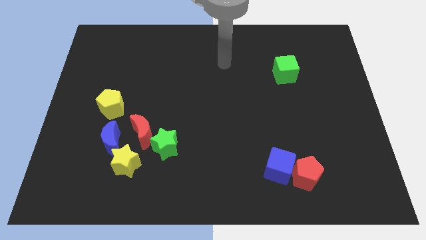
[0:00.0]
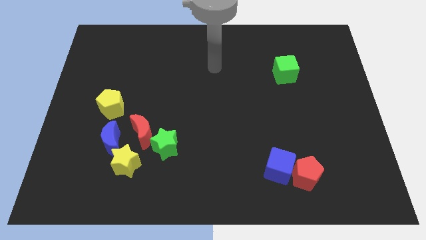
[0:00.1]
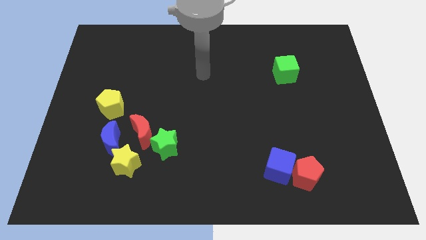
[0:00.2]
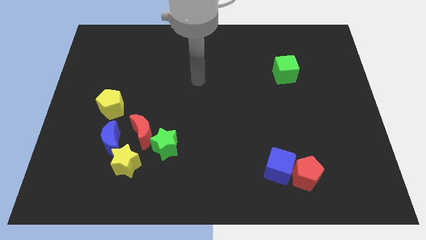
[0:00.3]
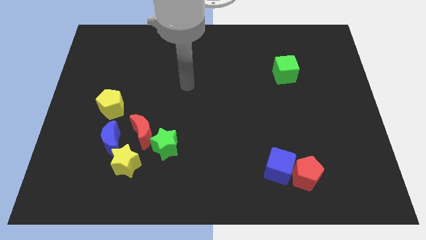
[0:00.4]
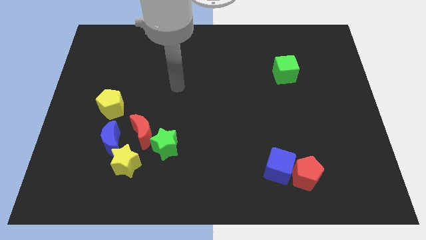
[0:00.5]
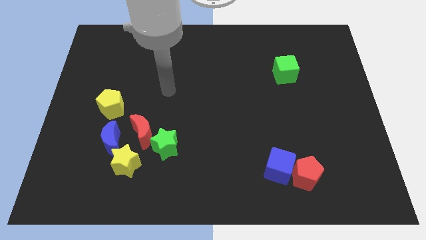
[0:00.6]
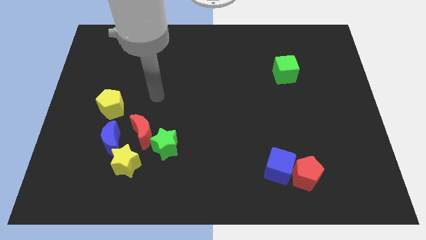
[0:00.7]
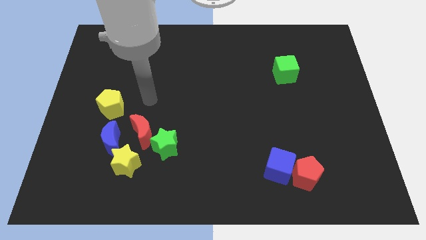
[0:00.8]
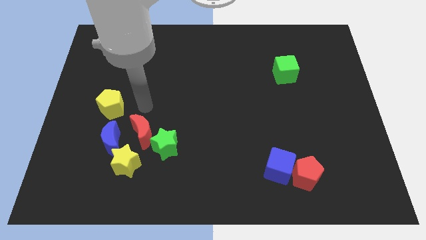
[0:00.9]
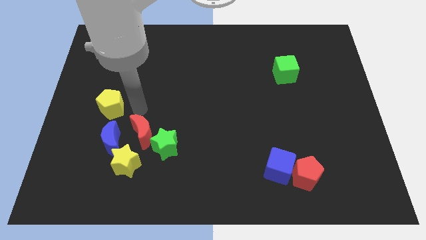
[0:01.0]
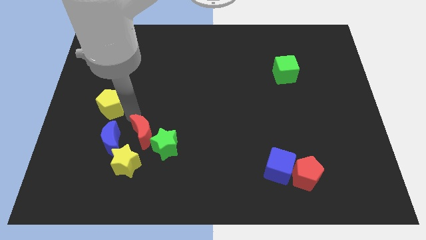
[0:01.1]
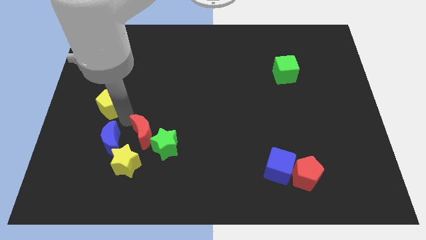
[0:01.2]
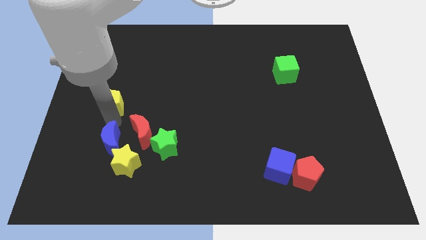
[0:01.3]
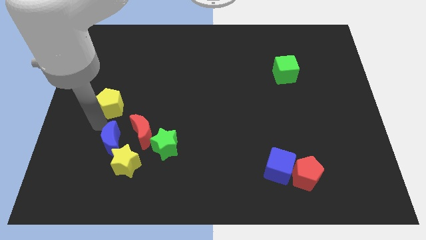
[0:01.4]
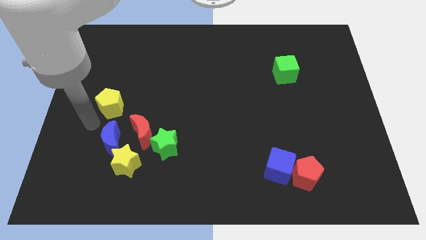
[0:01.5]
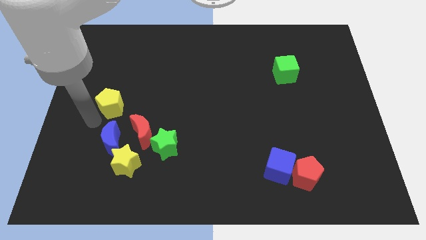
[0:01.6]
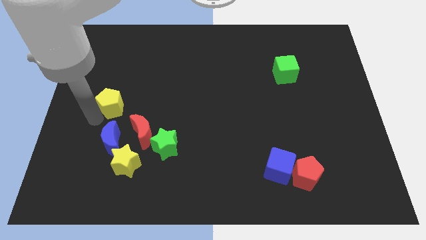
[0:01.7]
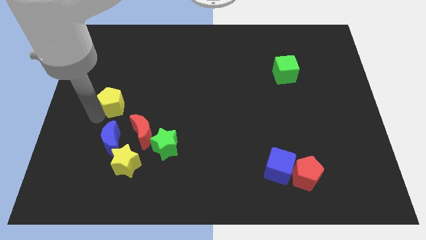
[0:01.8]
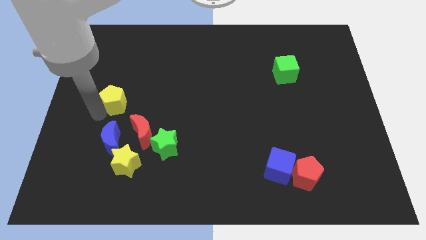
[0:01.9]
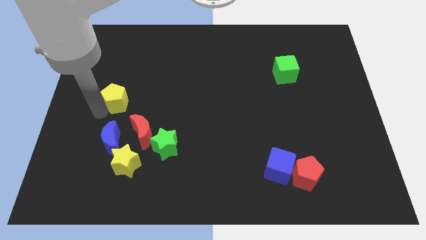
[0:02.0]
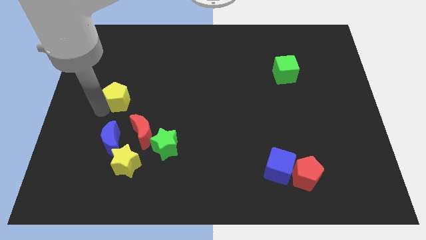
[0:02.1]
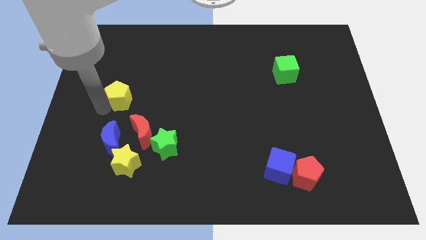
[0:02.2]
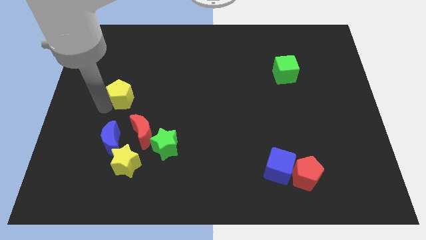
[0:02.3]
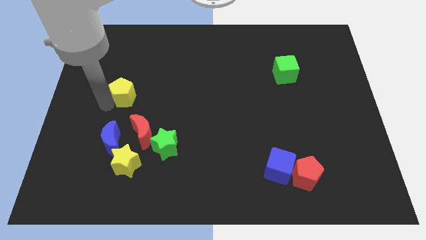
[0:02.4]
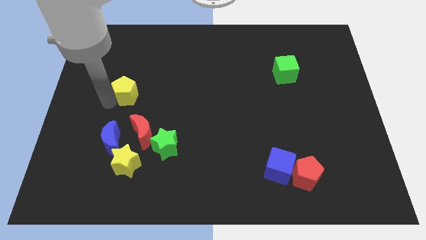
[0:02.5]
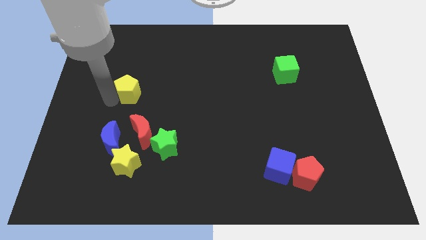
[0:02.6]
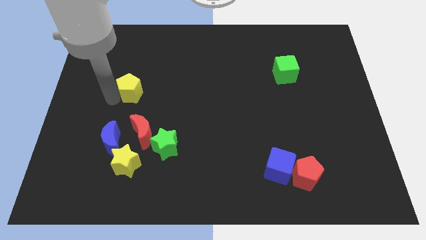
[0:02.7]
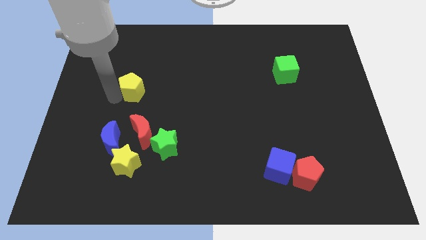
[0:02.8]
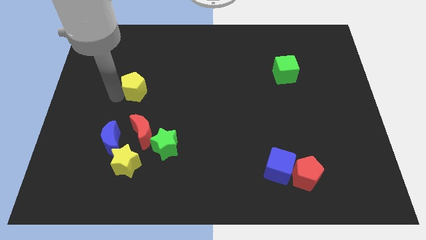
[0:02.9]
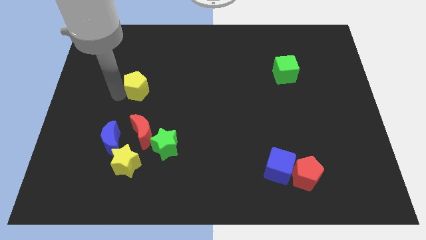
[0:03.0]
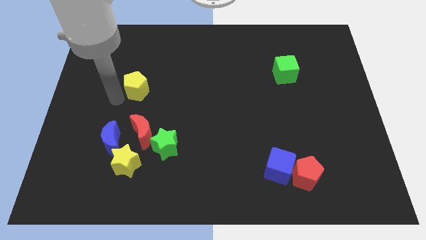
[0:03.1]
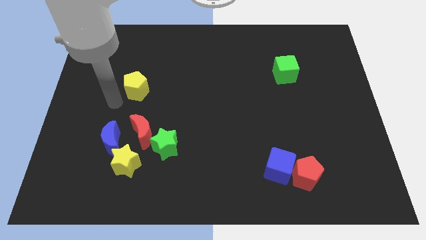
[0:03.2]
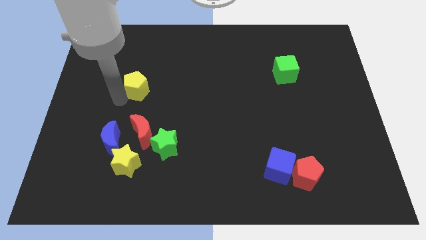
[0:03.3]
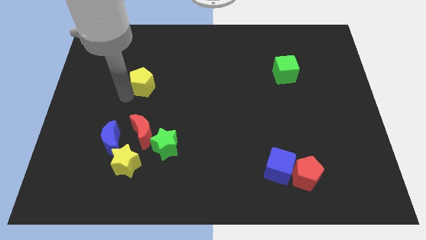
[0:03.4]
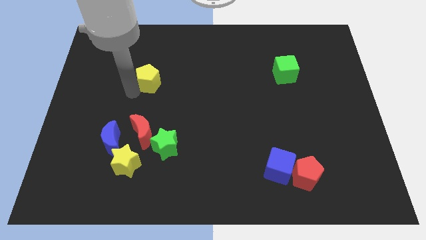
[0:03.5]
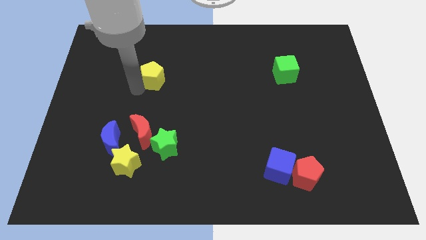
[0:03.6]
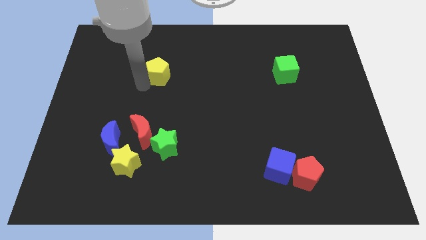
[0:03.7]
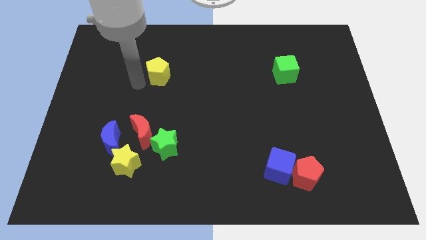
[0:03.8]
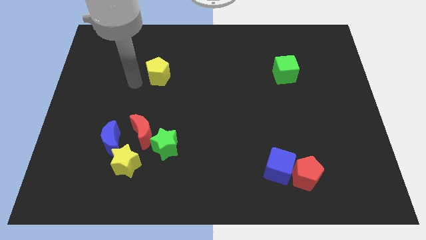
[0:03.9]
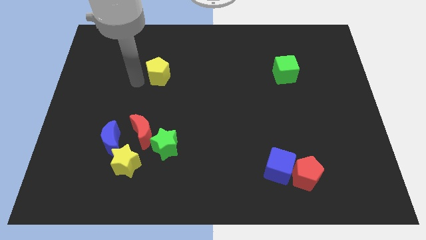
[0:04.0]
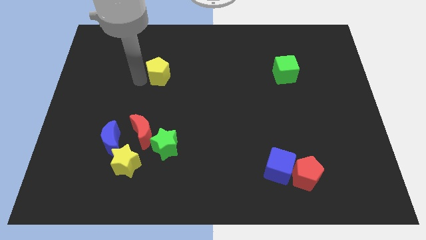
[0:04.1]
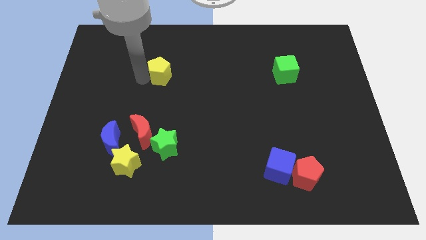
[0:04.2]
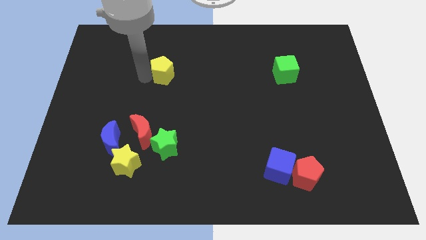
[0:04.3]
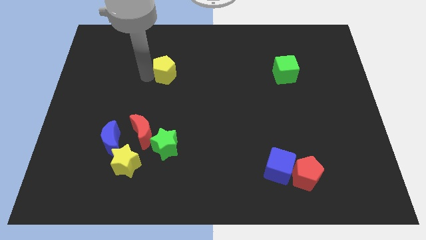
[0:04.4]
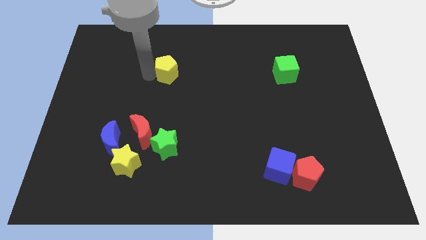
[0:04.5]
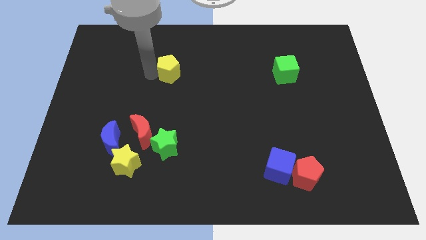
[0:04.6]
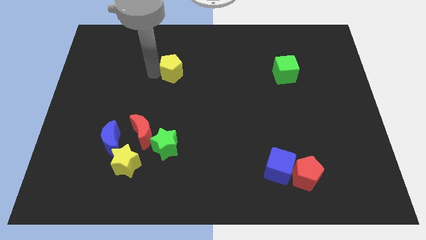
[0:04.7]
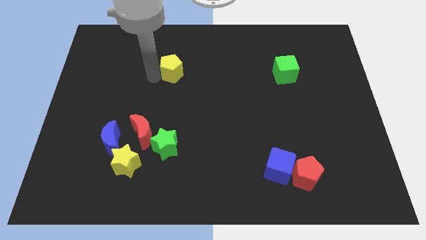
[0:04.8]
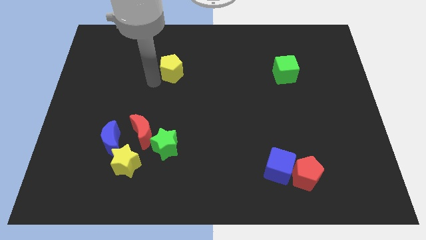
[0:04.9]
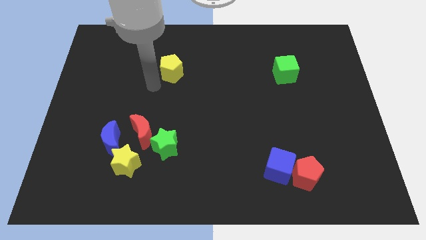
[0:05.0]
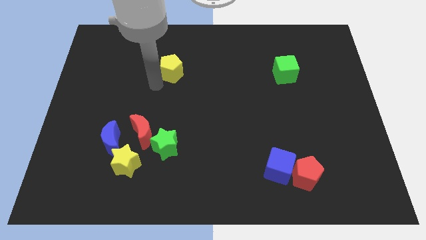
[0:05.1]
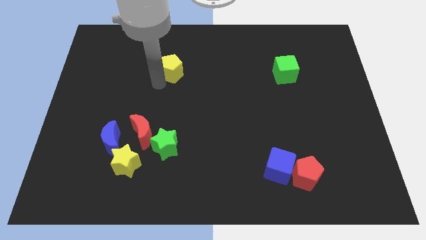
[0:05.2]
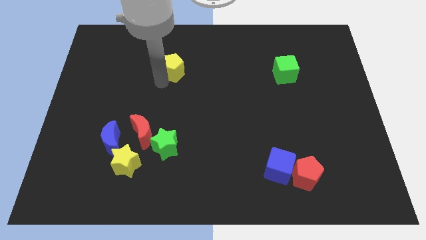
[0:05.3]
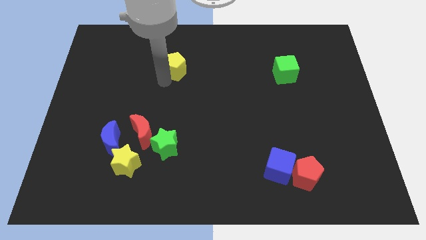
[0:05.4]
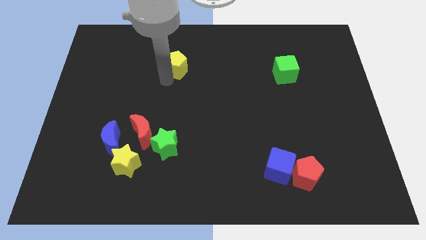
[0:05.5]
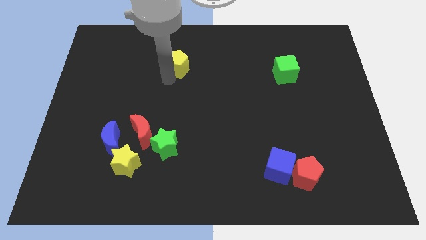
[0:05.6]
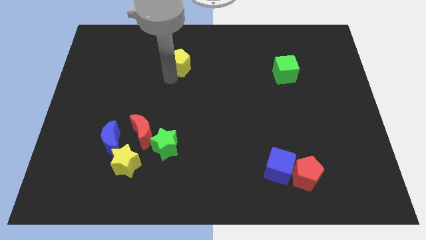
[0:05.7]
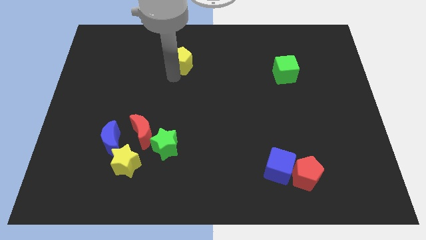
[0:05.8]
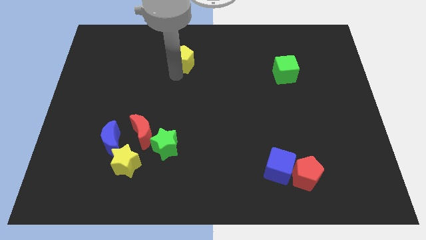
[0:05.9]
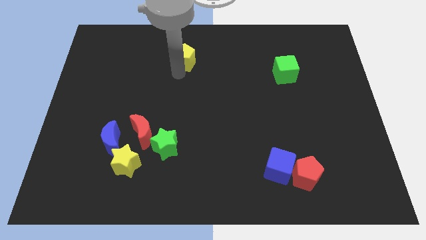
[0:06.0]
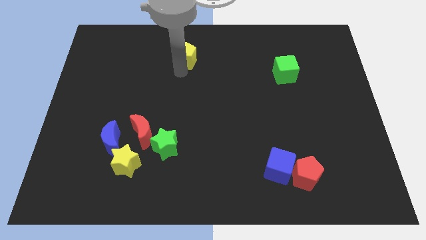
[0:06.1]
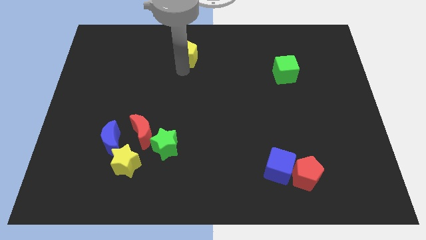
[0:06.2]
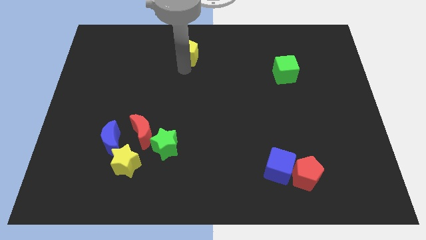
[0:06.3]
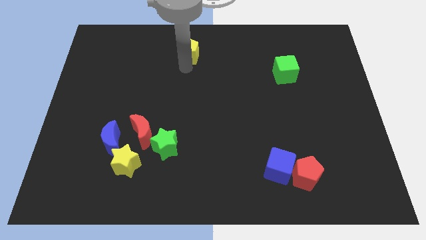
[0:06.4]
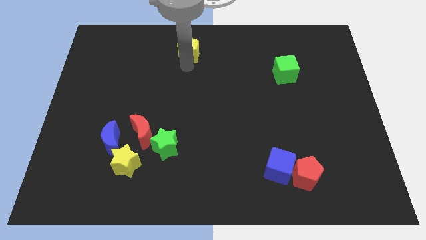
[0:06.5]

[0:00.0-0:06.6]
move the yellow pentagon to the top side
